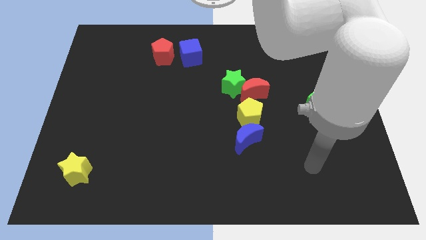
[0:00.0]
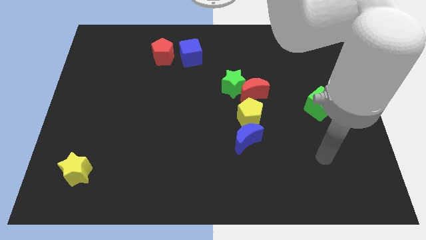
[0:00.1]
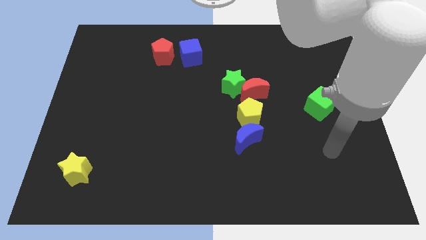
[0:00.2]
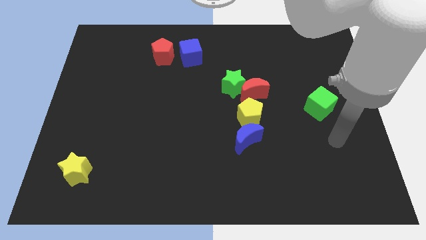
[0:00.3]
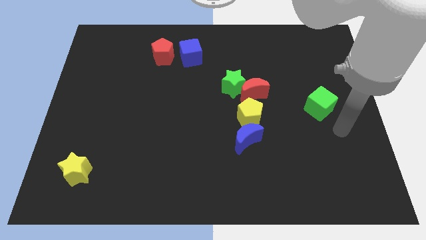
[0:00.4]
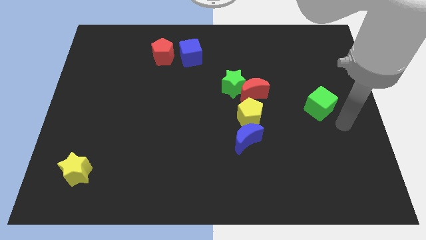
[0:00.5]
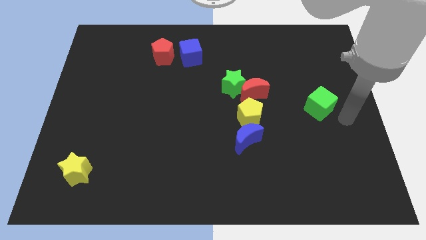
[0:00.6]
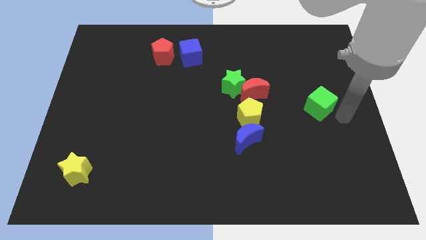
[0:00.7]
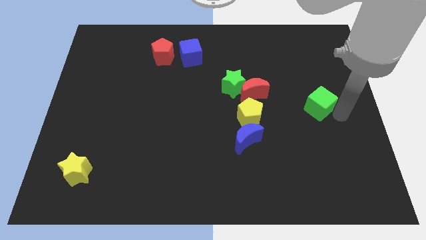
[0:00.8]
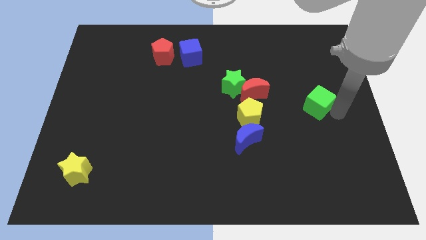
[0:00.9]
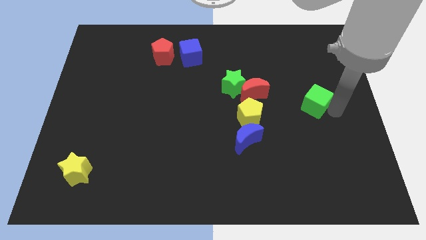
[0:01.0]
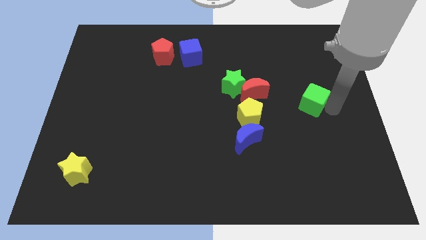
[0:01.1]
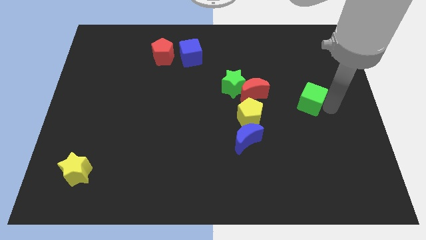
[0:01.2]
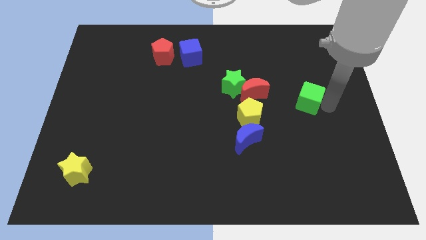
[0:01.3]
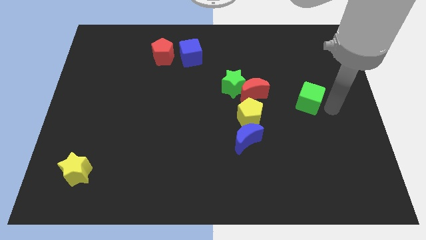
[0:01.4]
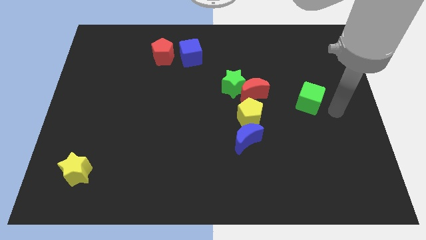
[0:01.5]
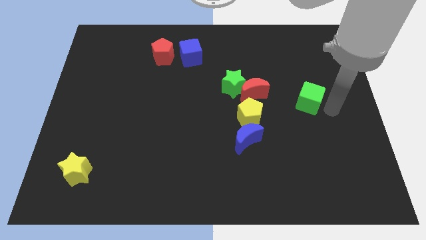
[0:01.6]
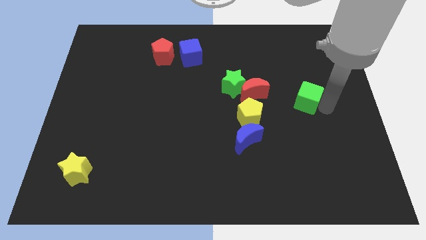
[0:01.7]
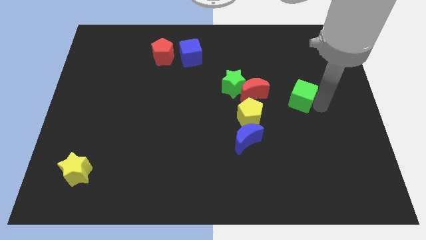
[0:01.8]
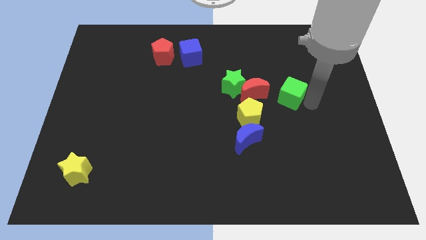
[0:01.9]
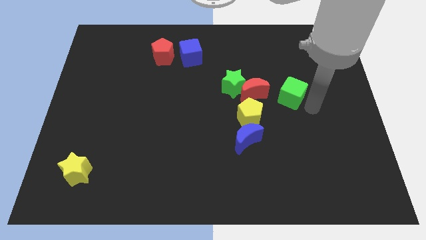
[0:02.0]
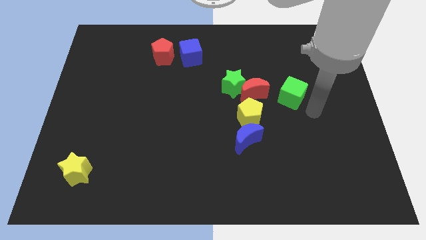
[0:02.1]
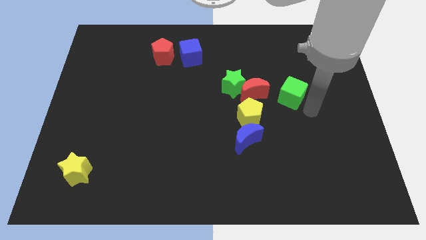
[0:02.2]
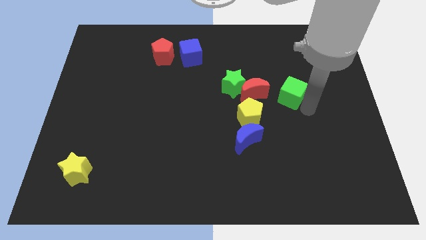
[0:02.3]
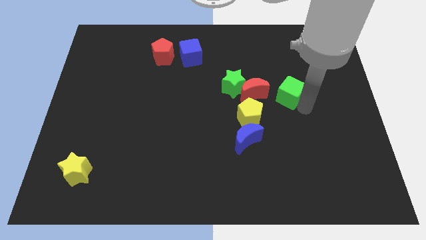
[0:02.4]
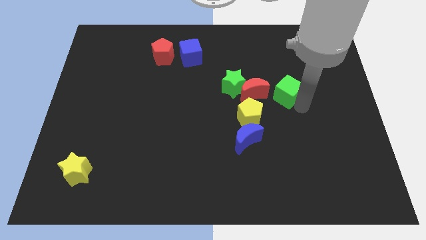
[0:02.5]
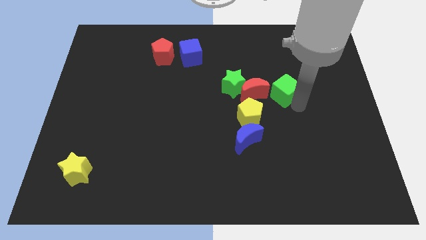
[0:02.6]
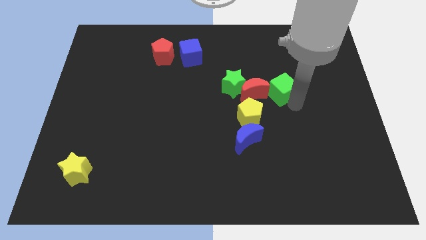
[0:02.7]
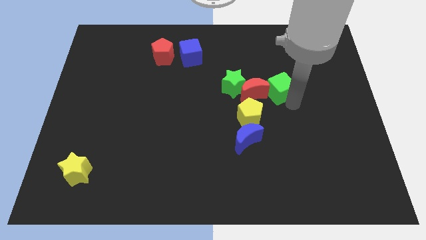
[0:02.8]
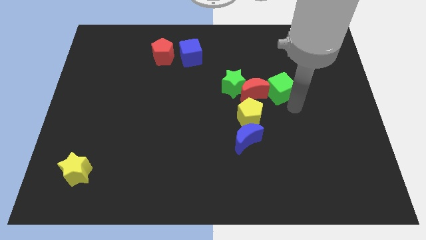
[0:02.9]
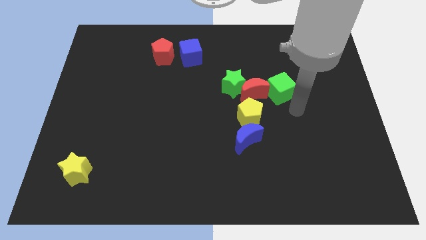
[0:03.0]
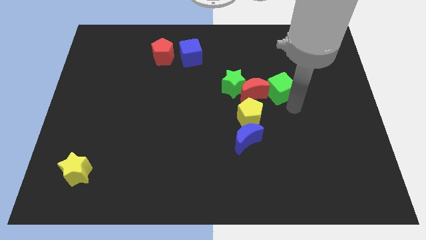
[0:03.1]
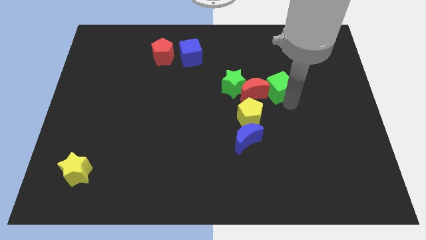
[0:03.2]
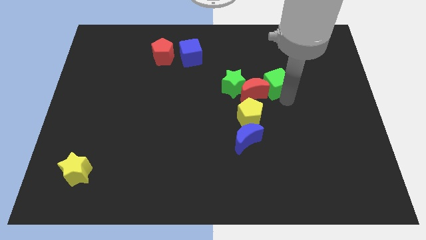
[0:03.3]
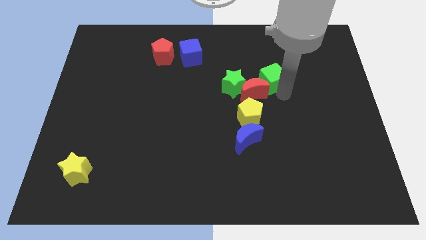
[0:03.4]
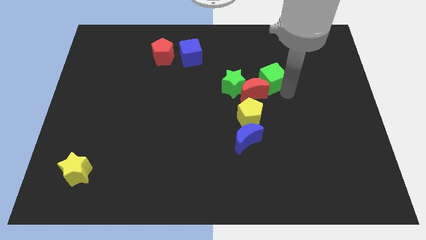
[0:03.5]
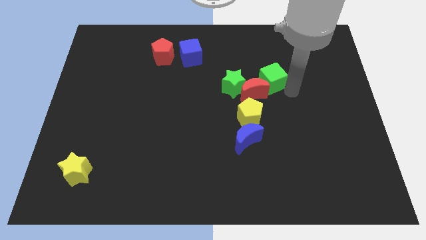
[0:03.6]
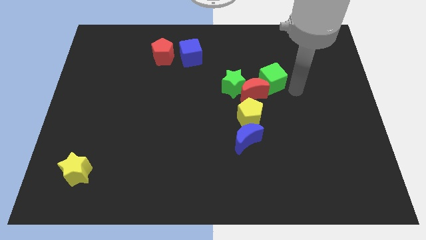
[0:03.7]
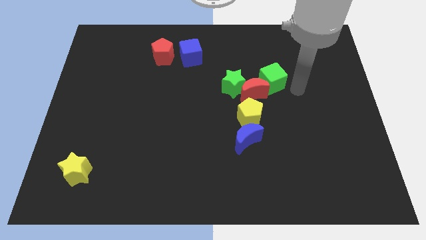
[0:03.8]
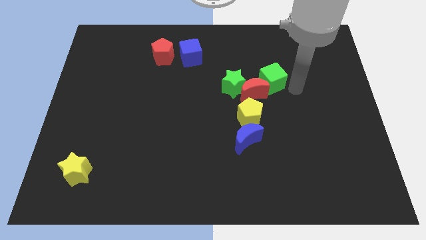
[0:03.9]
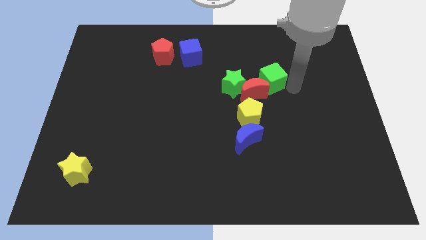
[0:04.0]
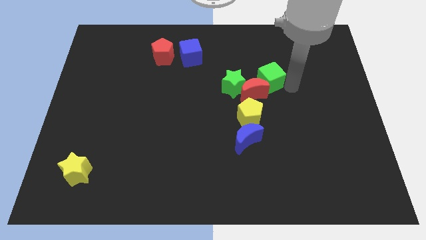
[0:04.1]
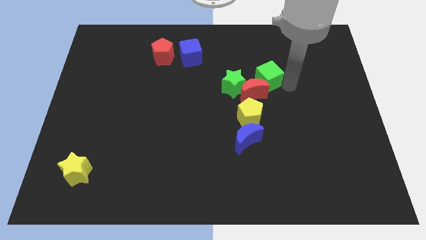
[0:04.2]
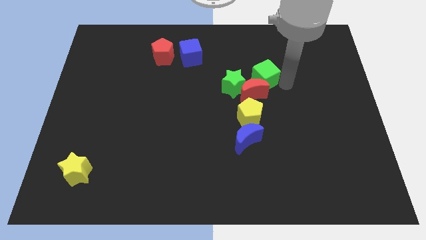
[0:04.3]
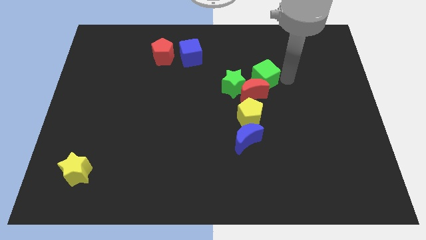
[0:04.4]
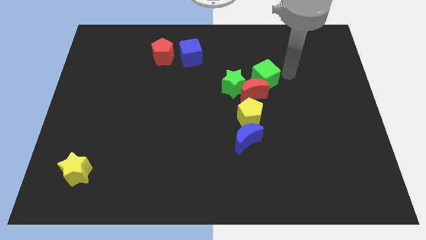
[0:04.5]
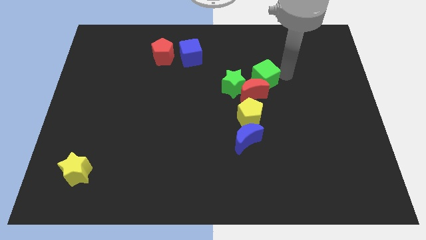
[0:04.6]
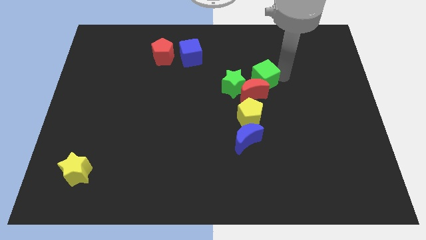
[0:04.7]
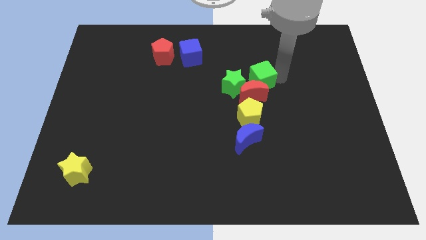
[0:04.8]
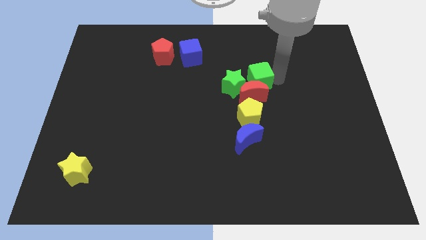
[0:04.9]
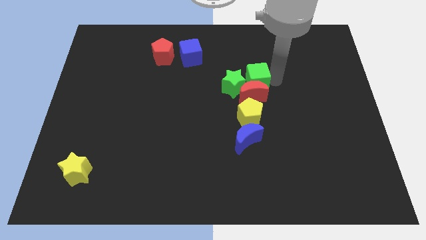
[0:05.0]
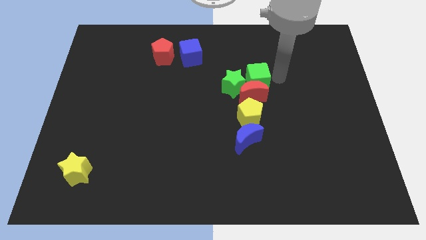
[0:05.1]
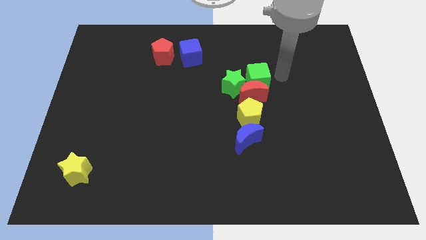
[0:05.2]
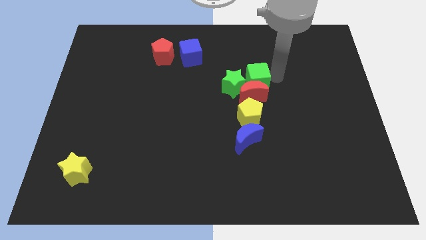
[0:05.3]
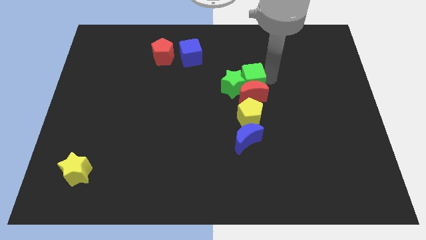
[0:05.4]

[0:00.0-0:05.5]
push the green cube next to the green star

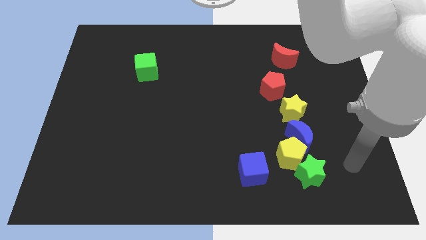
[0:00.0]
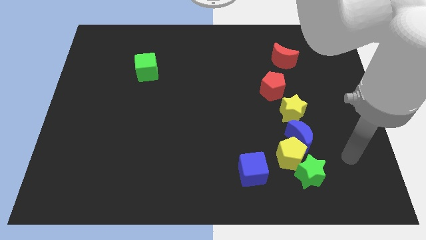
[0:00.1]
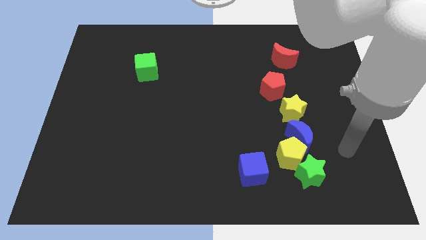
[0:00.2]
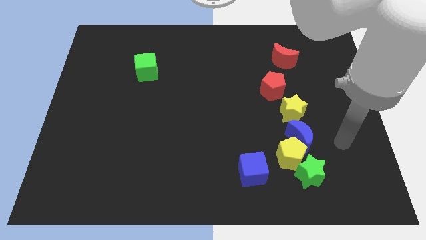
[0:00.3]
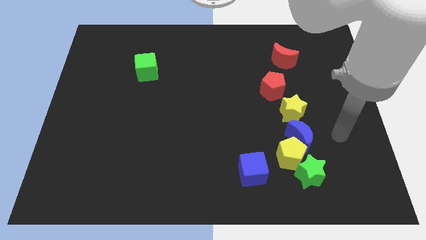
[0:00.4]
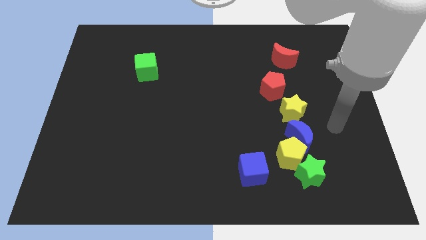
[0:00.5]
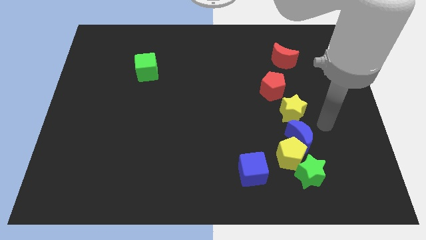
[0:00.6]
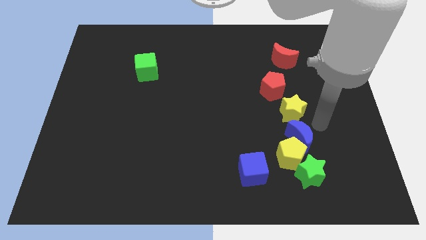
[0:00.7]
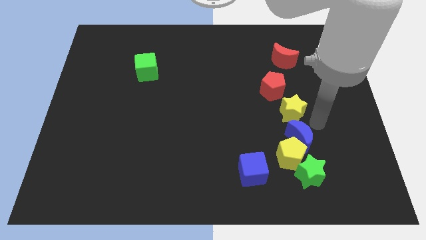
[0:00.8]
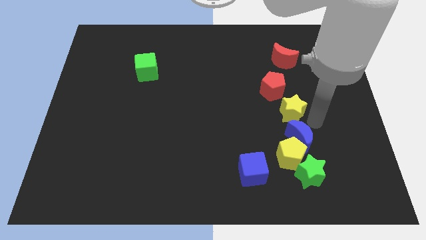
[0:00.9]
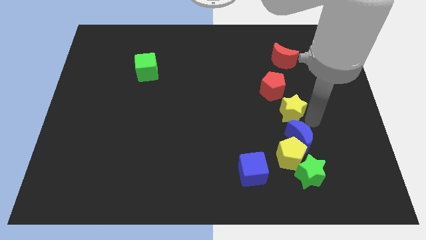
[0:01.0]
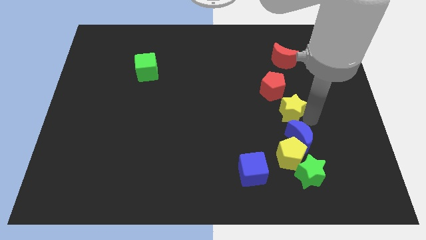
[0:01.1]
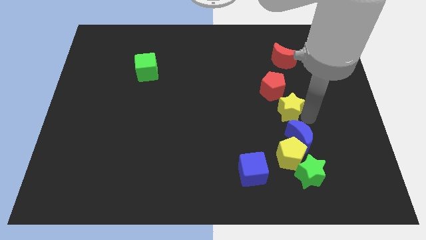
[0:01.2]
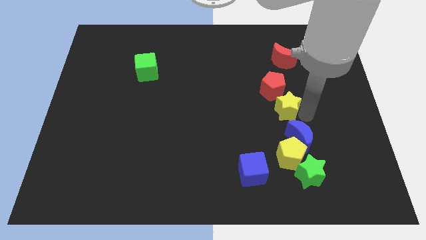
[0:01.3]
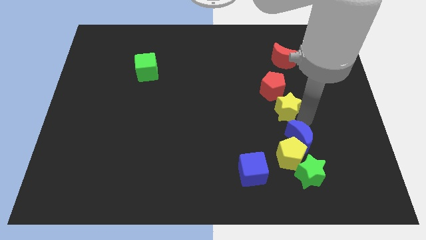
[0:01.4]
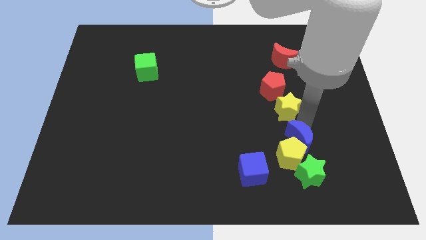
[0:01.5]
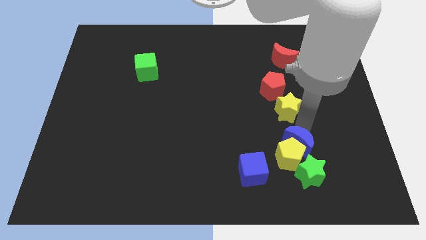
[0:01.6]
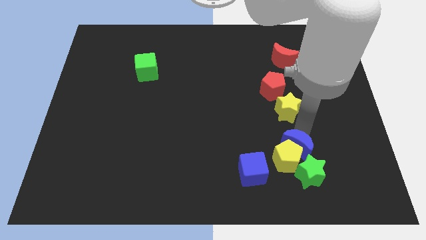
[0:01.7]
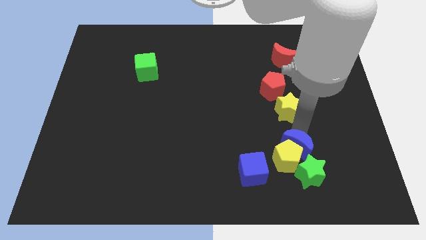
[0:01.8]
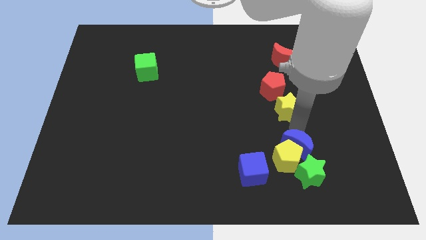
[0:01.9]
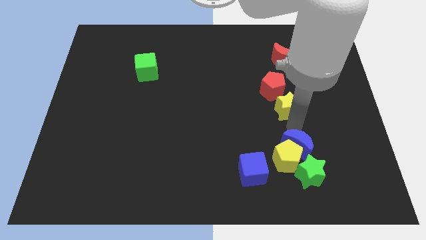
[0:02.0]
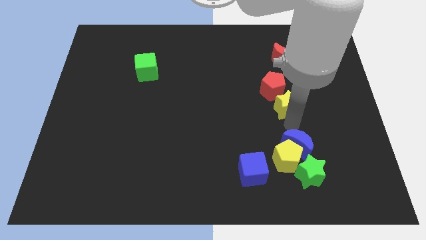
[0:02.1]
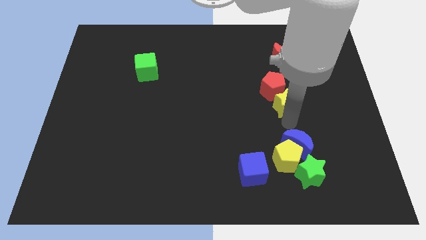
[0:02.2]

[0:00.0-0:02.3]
move the yellow star towards the red pentagon
